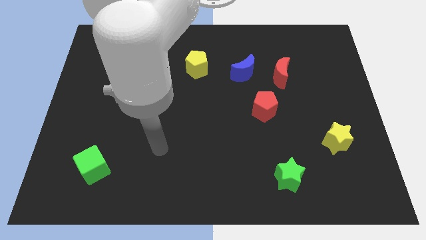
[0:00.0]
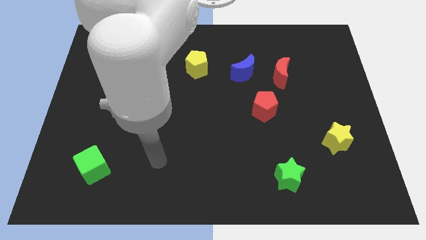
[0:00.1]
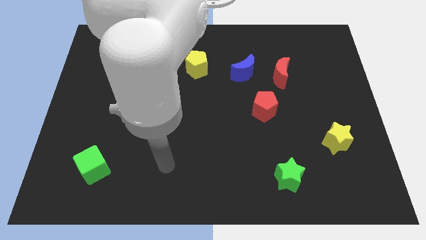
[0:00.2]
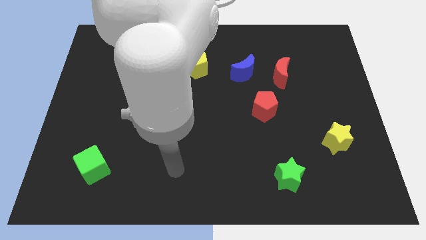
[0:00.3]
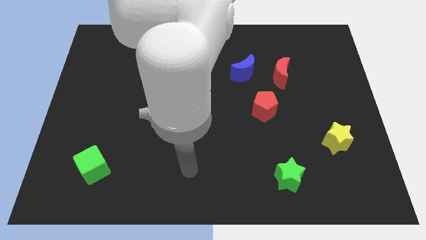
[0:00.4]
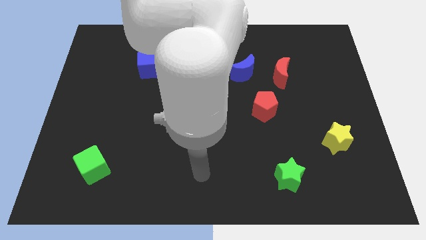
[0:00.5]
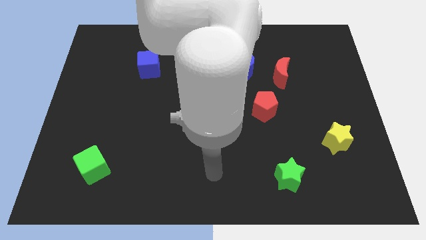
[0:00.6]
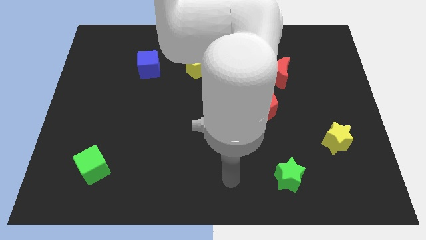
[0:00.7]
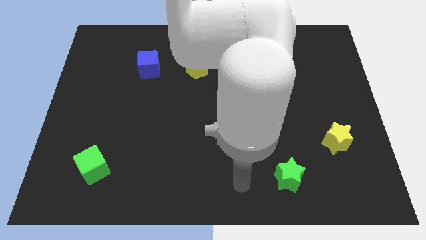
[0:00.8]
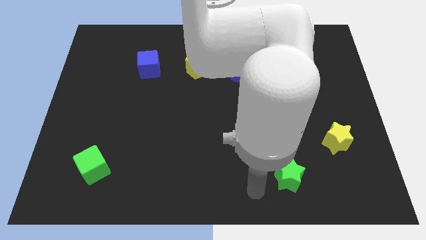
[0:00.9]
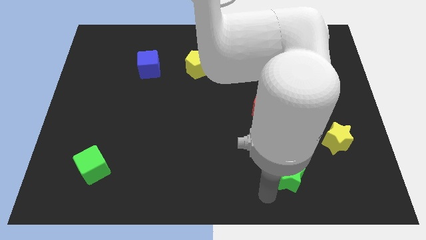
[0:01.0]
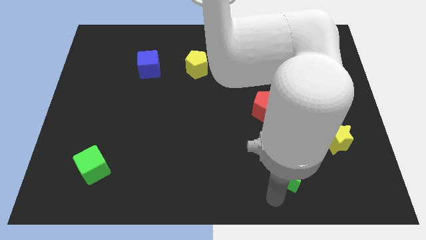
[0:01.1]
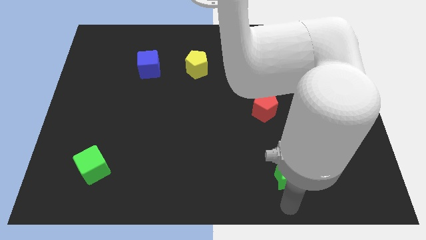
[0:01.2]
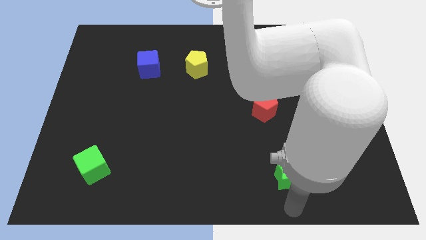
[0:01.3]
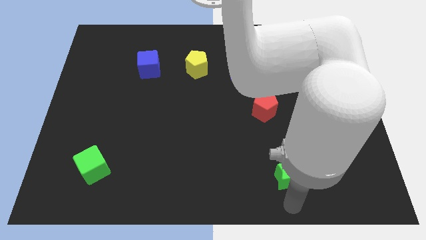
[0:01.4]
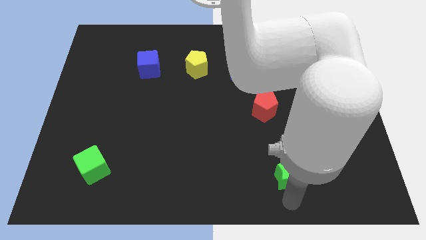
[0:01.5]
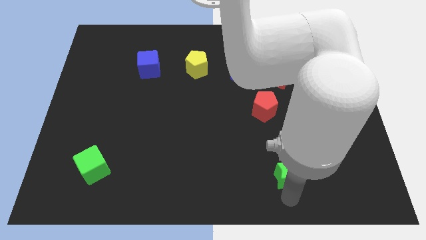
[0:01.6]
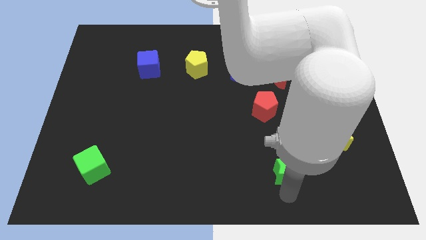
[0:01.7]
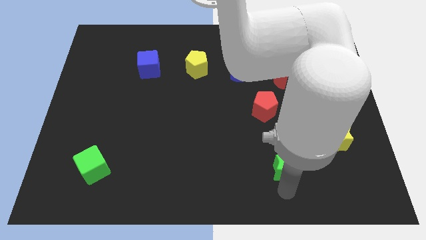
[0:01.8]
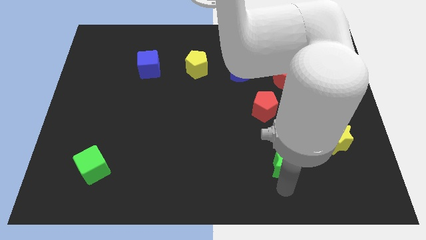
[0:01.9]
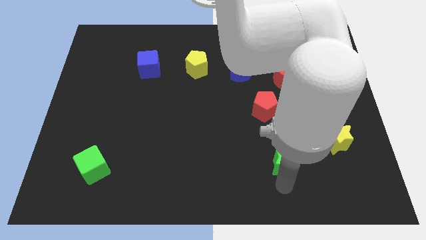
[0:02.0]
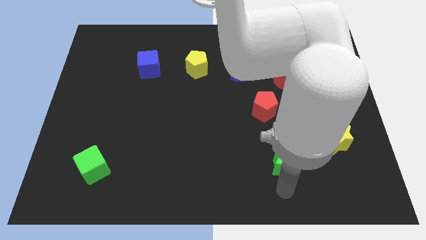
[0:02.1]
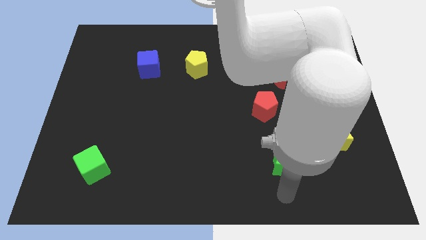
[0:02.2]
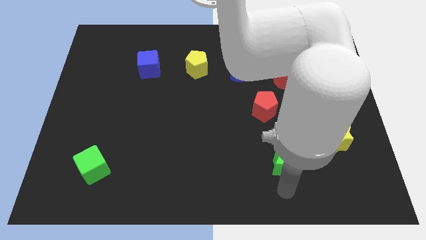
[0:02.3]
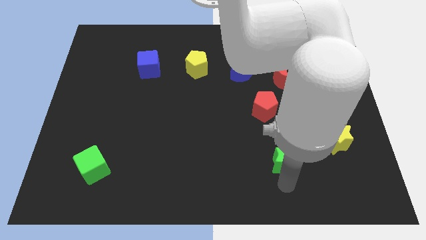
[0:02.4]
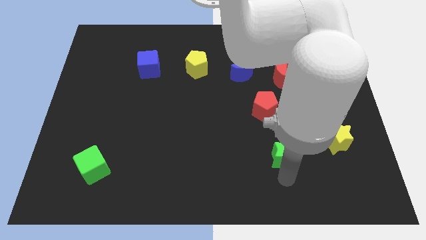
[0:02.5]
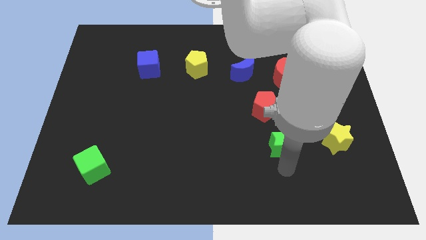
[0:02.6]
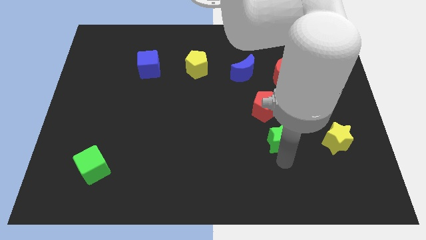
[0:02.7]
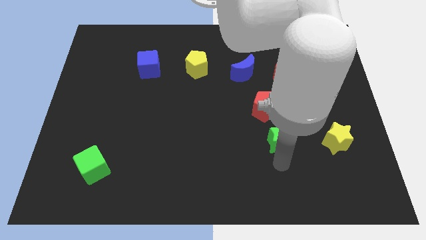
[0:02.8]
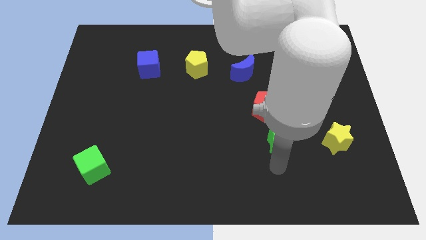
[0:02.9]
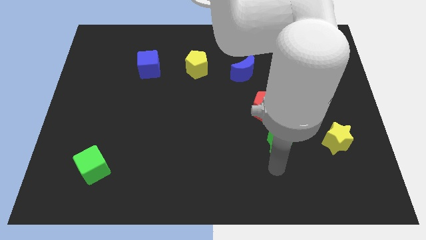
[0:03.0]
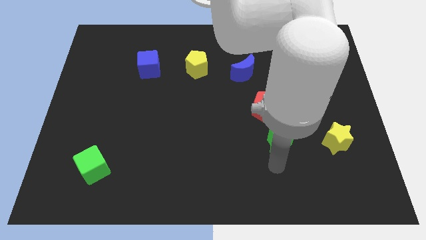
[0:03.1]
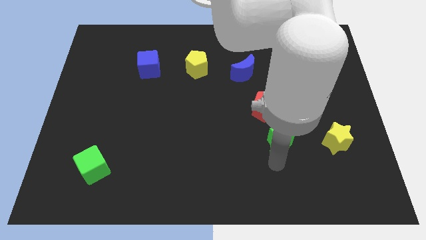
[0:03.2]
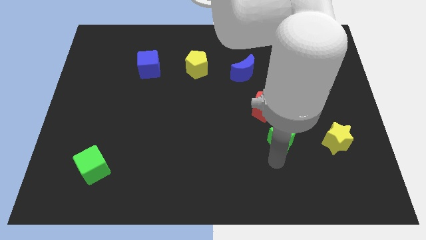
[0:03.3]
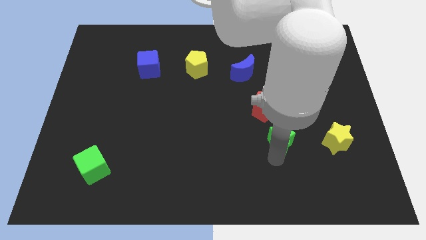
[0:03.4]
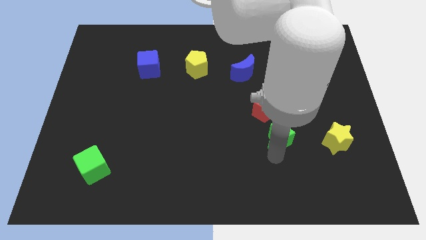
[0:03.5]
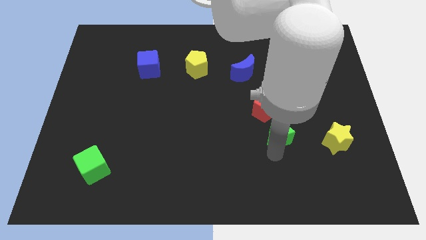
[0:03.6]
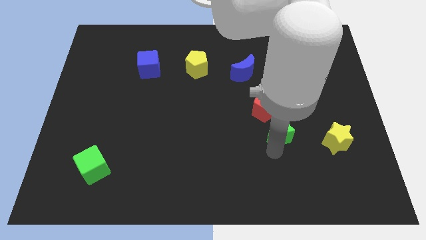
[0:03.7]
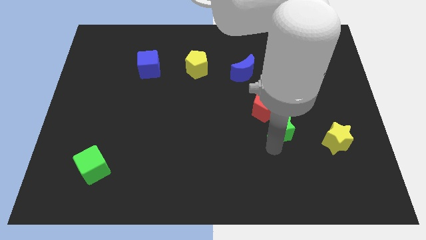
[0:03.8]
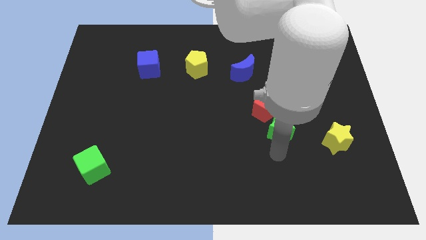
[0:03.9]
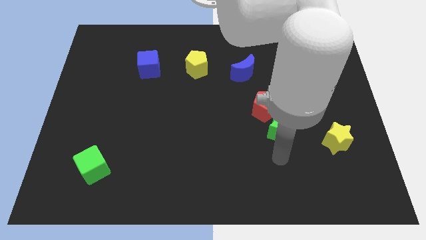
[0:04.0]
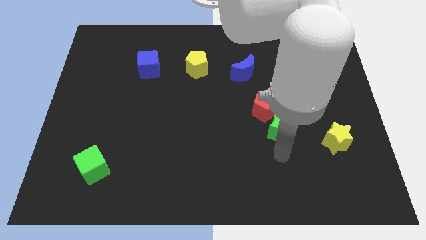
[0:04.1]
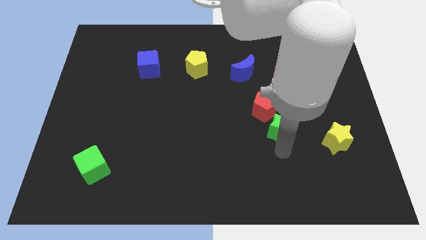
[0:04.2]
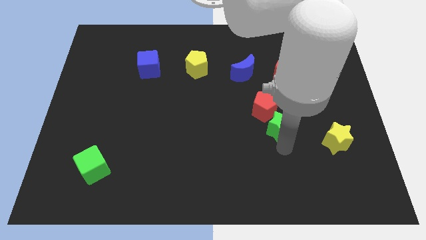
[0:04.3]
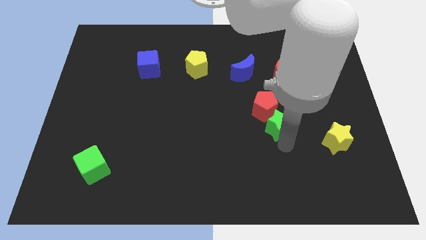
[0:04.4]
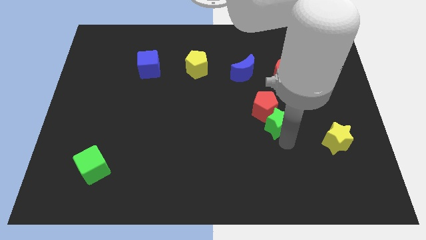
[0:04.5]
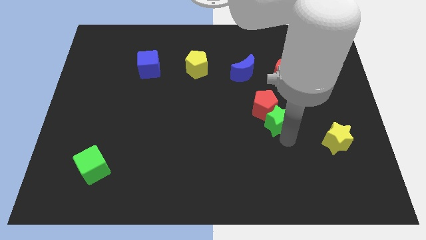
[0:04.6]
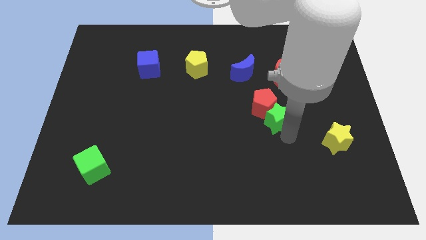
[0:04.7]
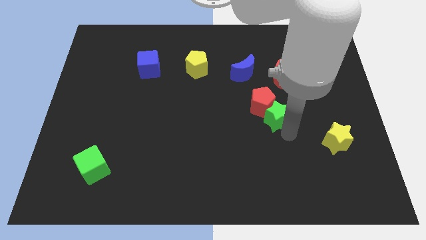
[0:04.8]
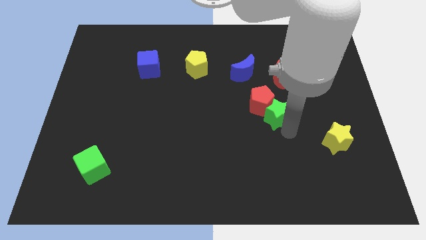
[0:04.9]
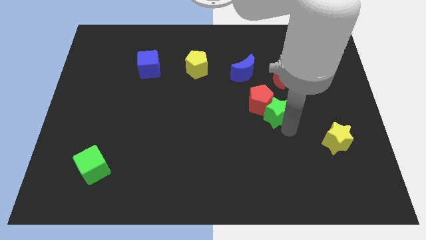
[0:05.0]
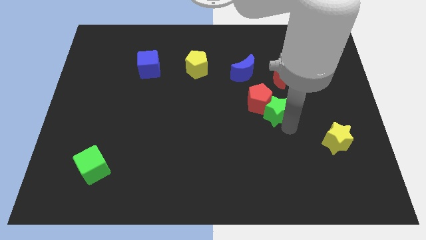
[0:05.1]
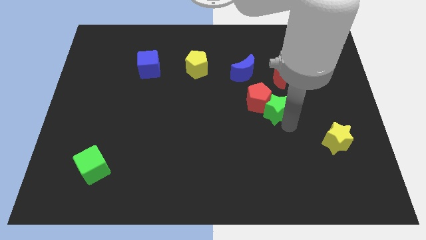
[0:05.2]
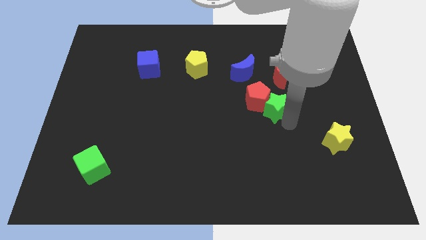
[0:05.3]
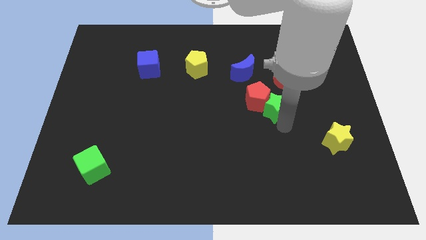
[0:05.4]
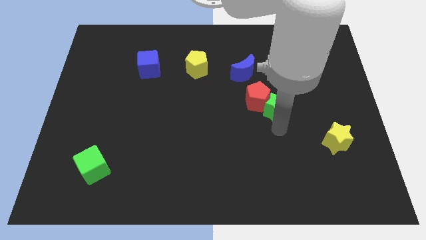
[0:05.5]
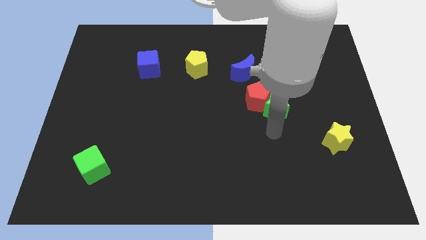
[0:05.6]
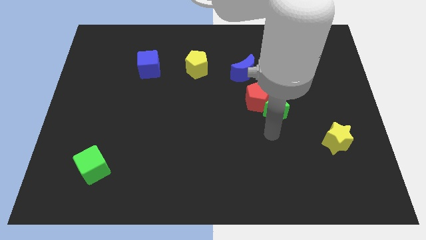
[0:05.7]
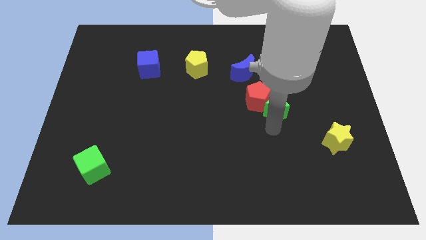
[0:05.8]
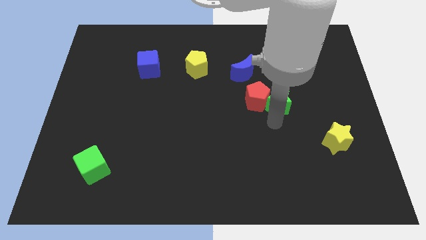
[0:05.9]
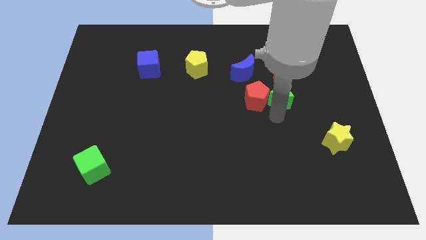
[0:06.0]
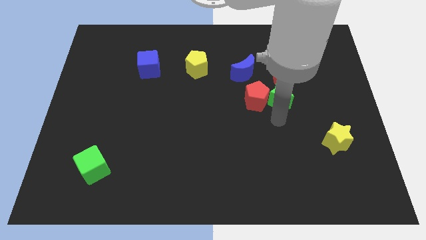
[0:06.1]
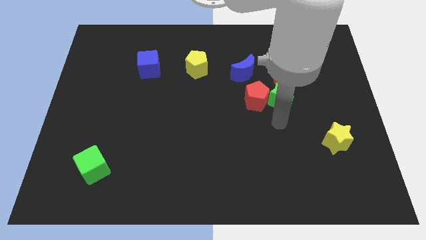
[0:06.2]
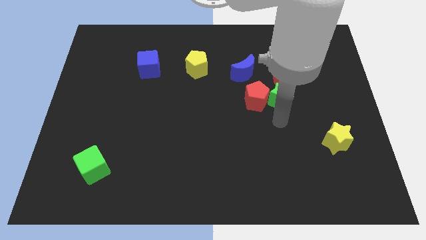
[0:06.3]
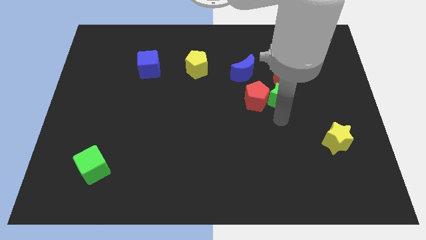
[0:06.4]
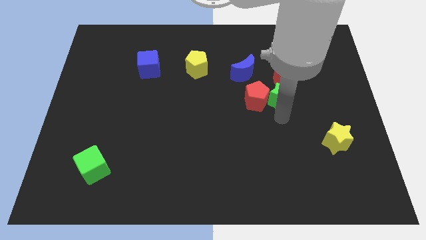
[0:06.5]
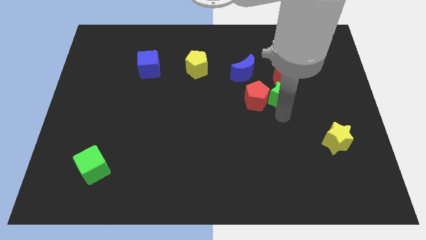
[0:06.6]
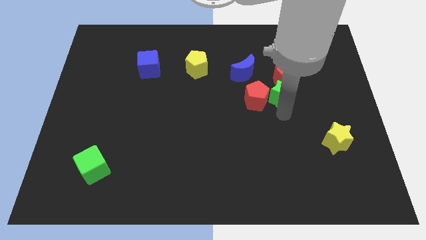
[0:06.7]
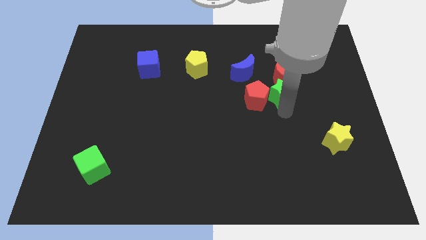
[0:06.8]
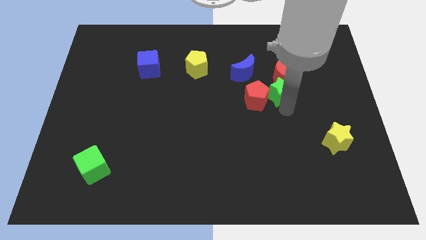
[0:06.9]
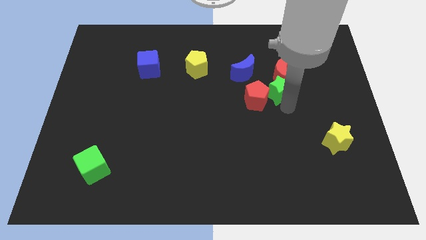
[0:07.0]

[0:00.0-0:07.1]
slide the green star close to the red moon

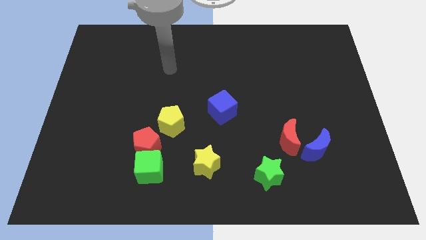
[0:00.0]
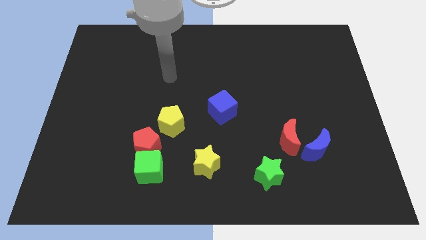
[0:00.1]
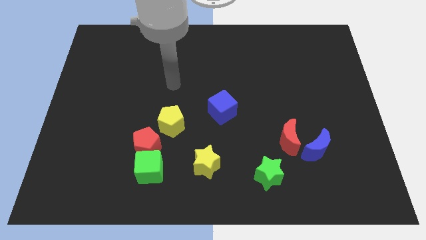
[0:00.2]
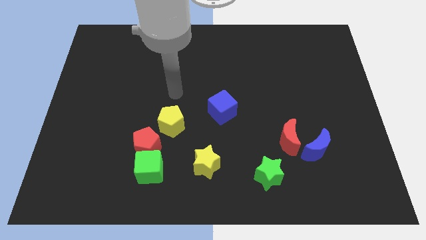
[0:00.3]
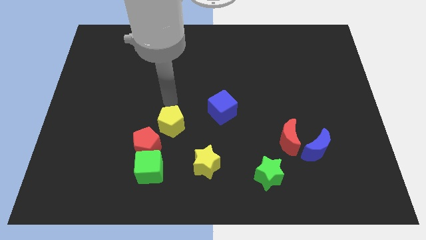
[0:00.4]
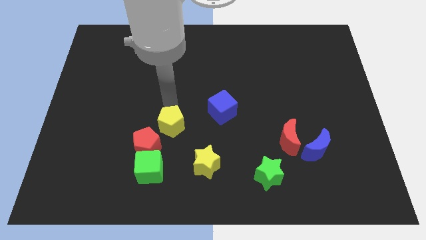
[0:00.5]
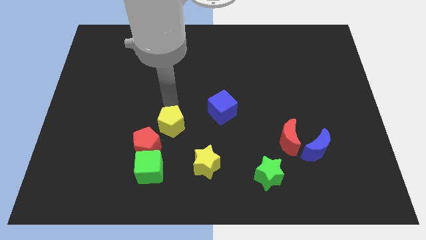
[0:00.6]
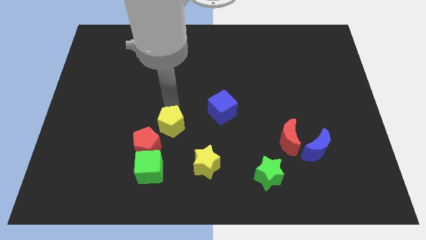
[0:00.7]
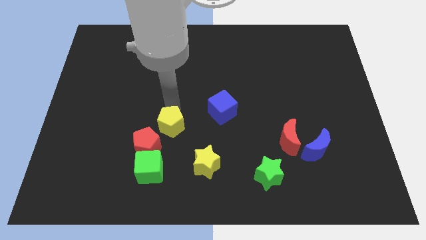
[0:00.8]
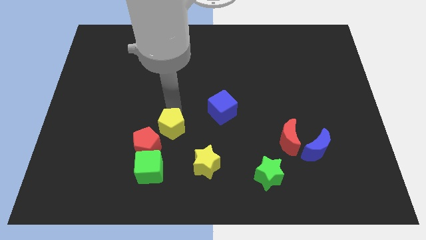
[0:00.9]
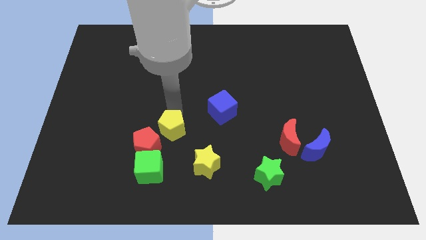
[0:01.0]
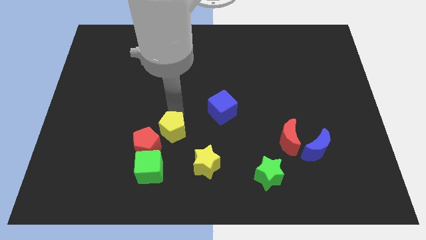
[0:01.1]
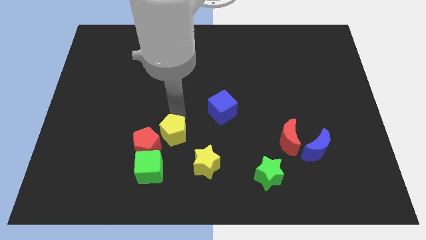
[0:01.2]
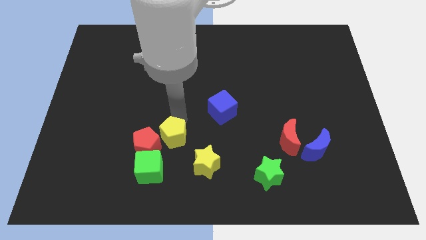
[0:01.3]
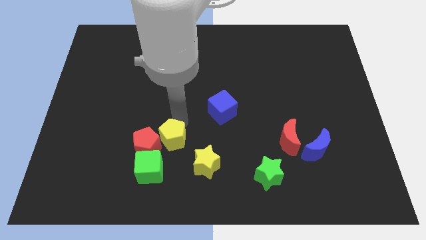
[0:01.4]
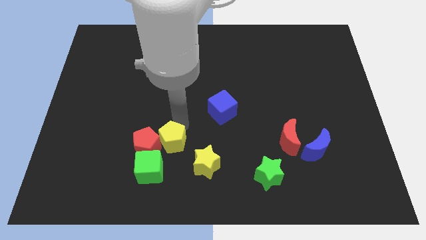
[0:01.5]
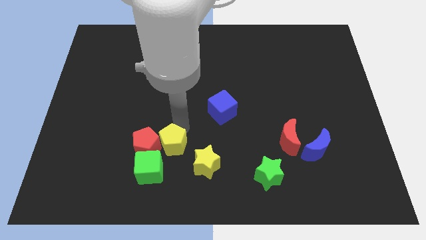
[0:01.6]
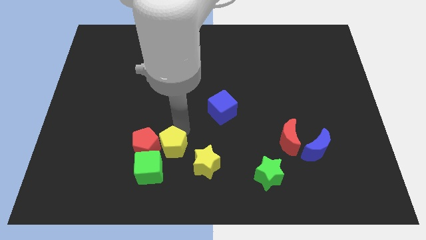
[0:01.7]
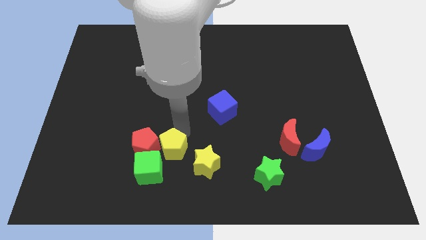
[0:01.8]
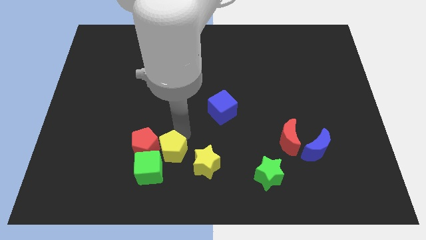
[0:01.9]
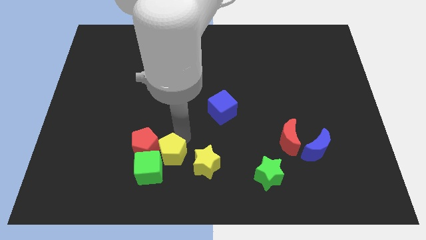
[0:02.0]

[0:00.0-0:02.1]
slide the yellow pentagon next to the green cube
